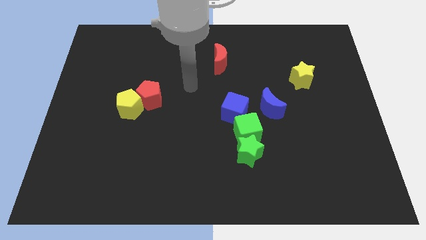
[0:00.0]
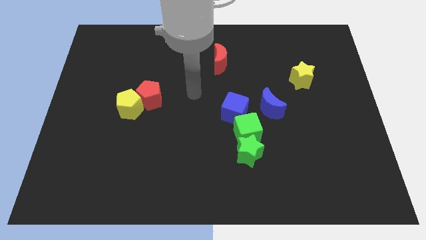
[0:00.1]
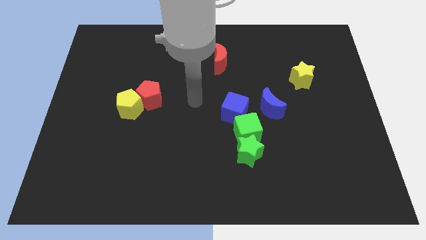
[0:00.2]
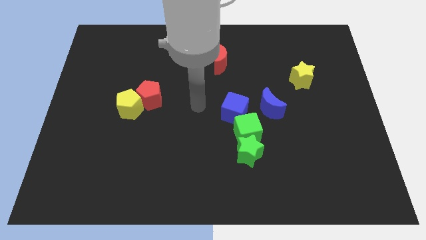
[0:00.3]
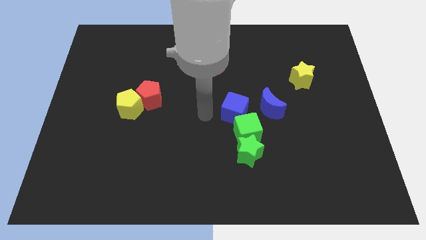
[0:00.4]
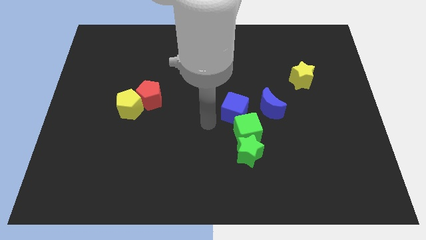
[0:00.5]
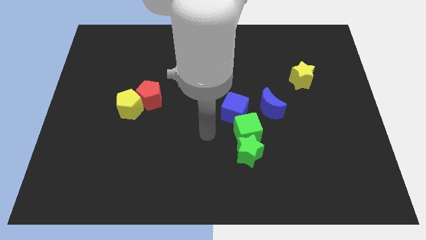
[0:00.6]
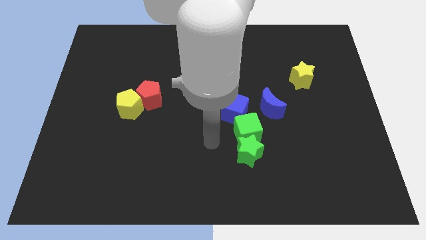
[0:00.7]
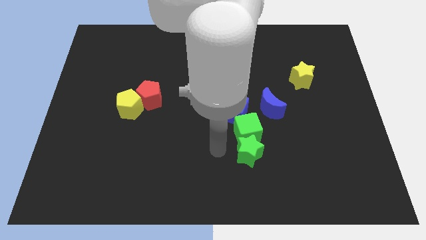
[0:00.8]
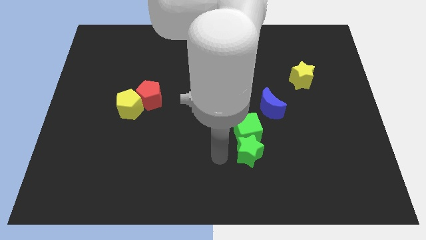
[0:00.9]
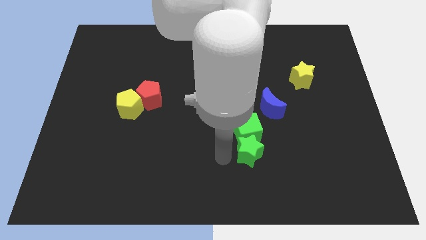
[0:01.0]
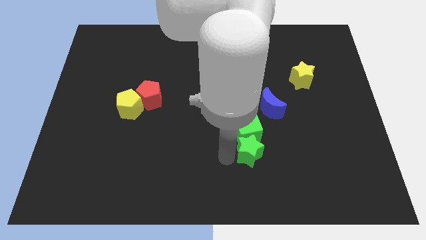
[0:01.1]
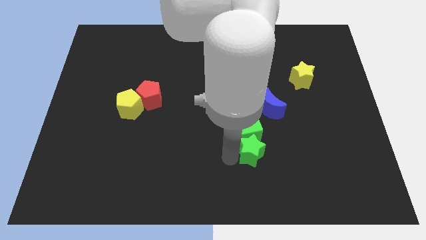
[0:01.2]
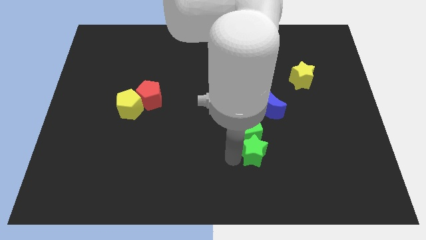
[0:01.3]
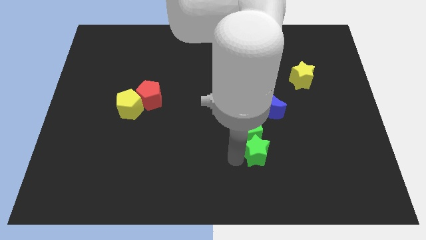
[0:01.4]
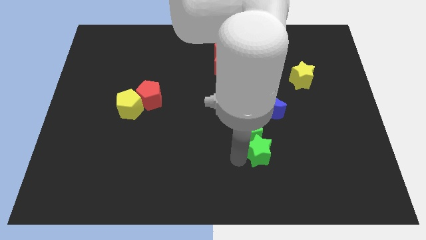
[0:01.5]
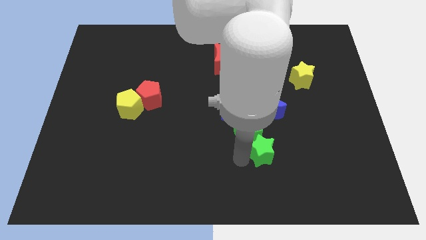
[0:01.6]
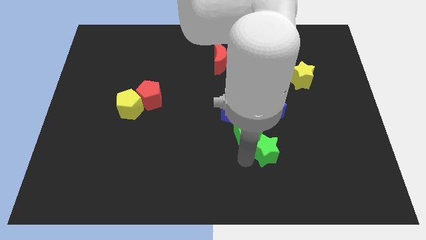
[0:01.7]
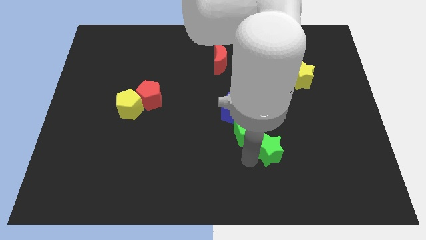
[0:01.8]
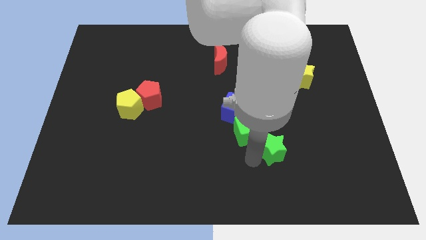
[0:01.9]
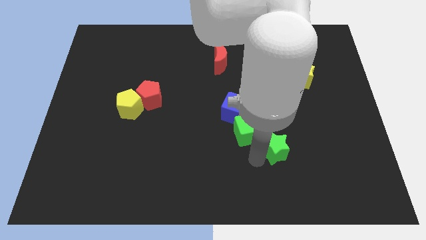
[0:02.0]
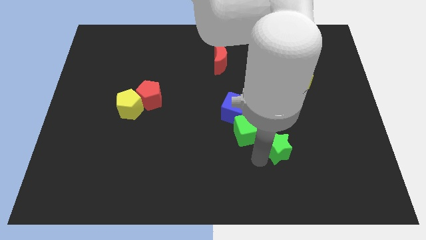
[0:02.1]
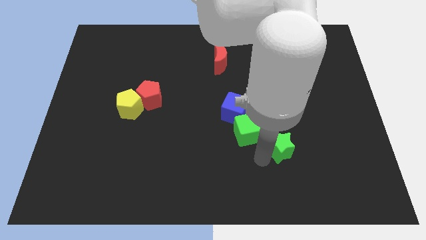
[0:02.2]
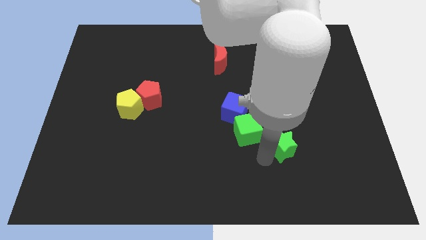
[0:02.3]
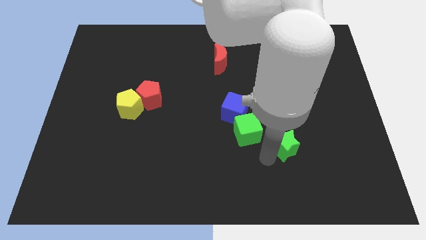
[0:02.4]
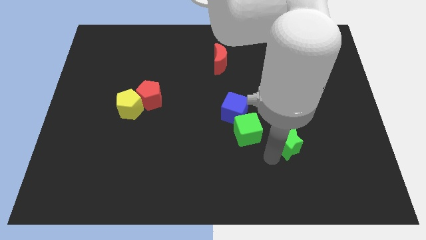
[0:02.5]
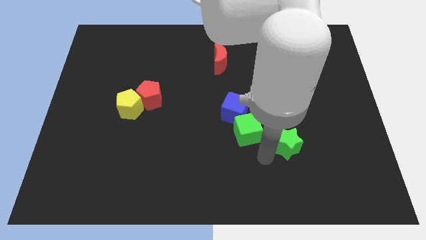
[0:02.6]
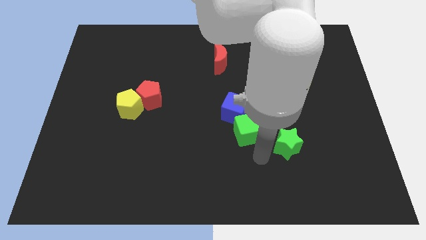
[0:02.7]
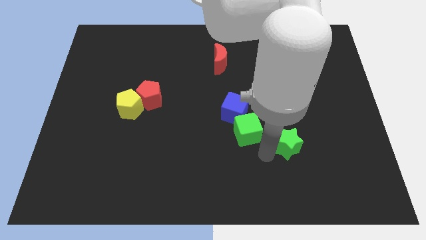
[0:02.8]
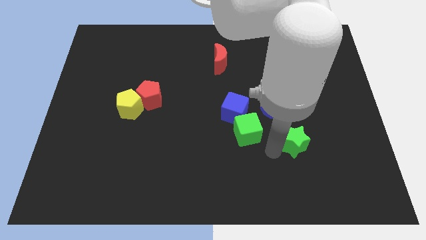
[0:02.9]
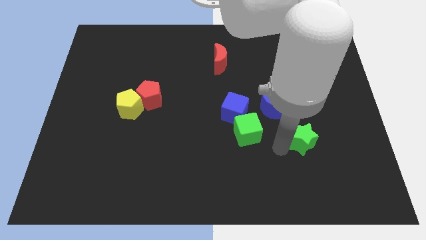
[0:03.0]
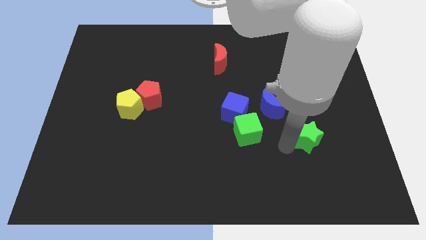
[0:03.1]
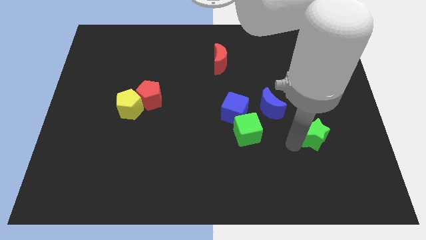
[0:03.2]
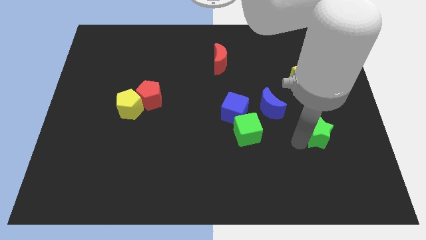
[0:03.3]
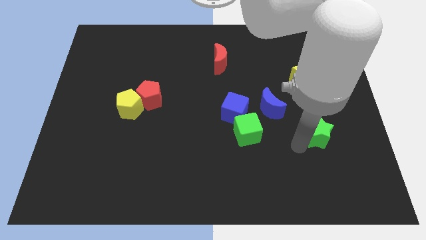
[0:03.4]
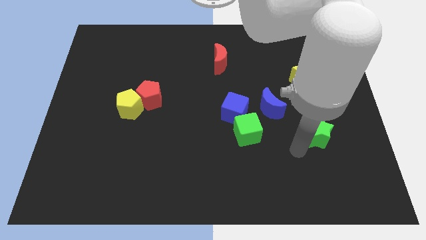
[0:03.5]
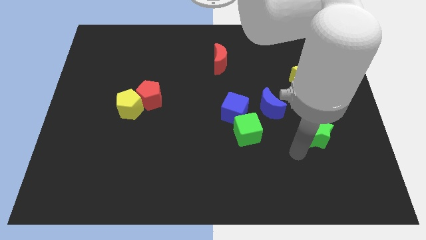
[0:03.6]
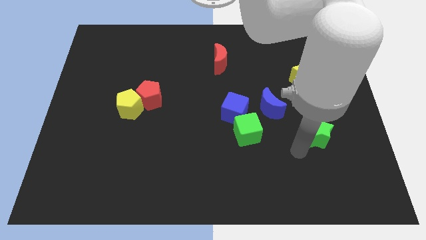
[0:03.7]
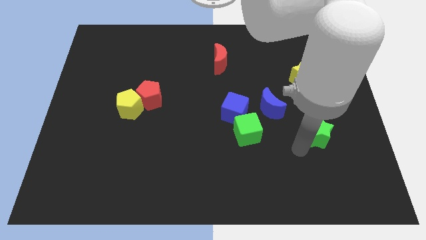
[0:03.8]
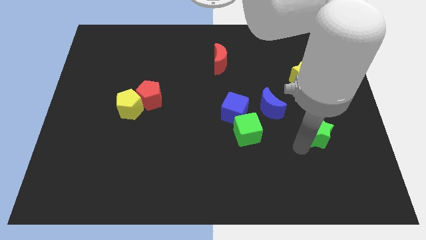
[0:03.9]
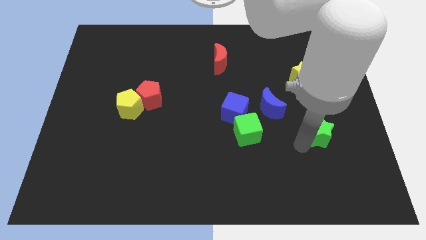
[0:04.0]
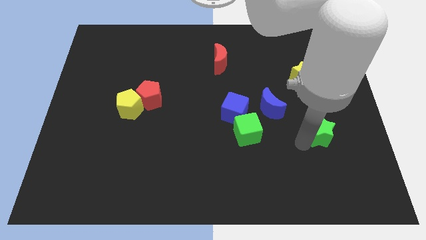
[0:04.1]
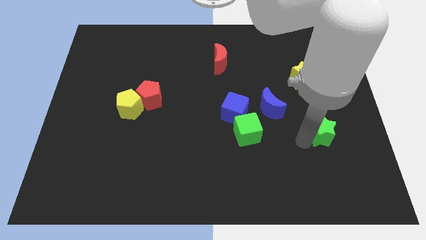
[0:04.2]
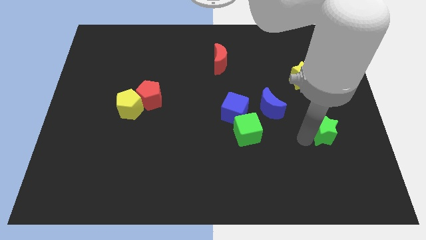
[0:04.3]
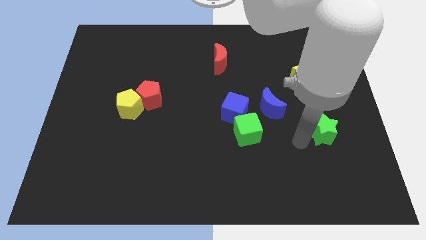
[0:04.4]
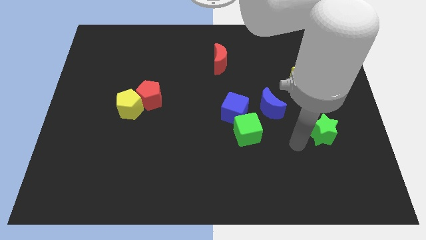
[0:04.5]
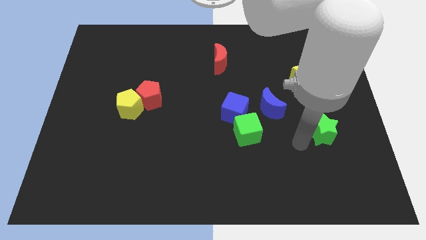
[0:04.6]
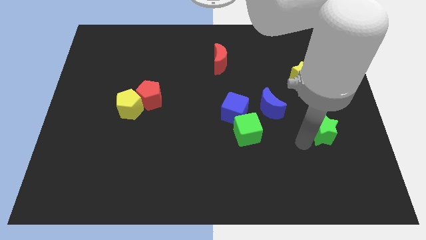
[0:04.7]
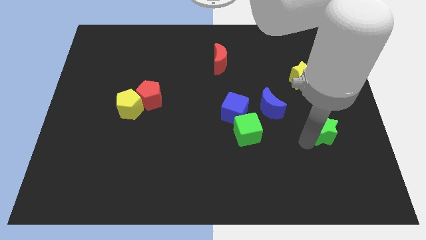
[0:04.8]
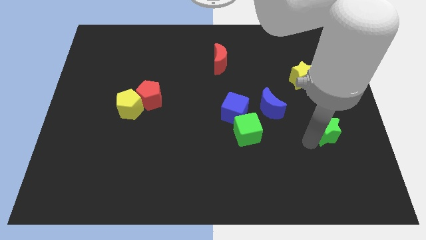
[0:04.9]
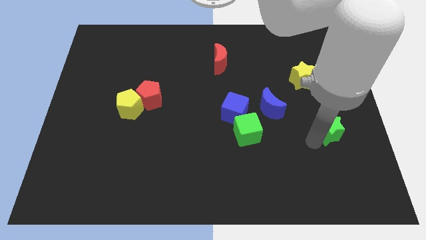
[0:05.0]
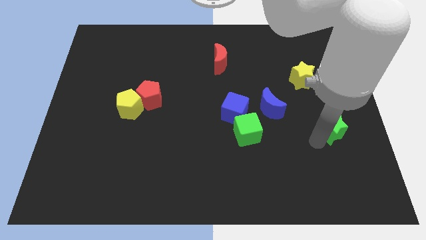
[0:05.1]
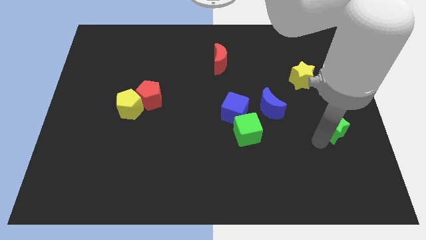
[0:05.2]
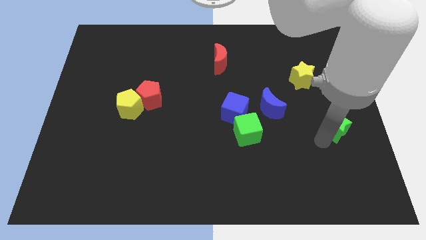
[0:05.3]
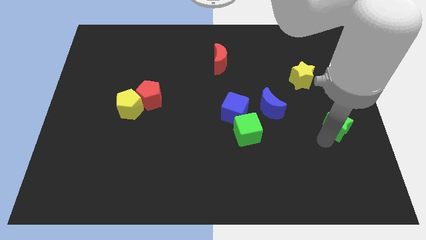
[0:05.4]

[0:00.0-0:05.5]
slide the green star to the right side

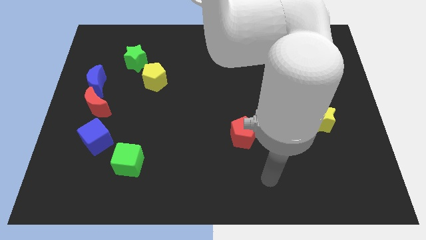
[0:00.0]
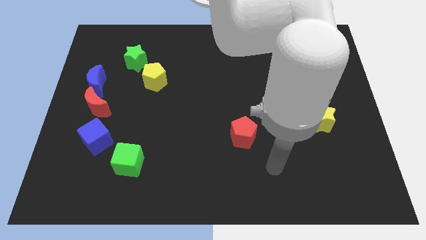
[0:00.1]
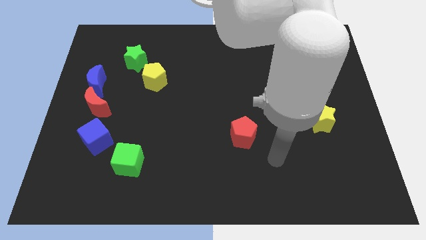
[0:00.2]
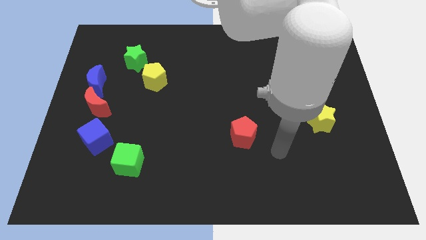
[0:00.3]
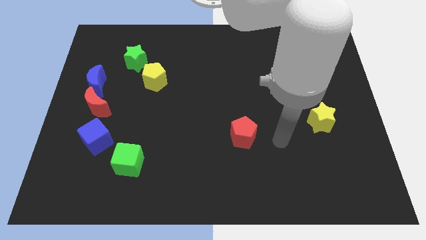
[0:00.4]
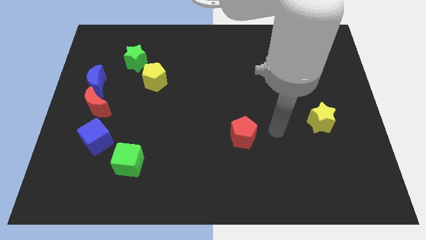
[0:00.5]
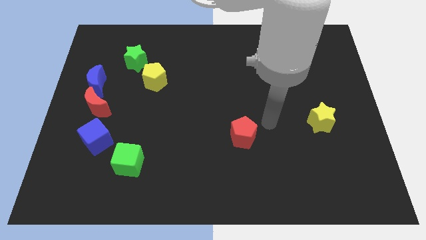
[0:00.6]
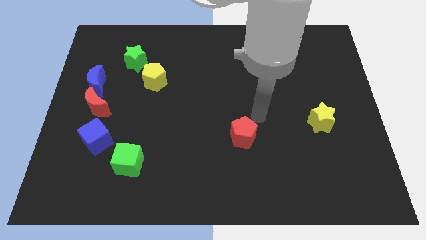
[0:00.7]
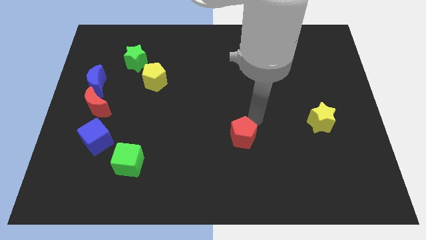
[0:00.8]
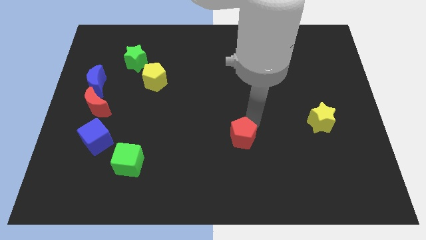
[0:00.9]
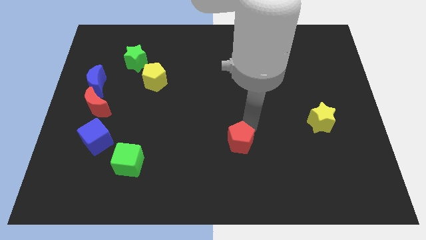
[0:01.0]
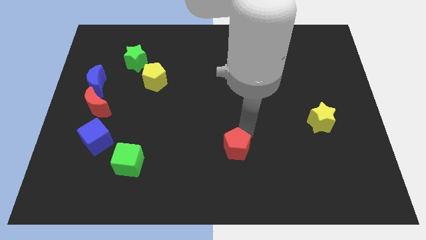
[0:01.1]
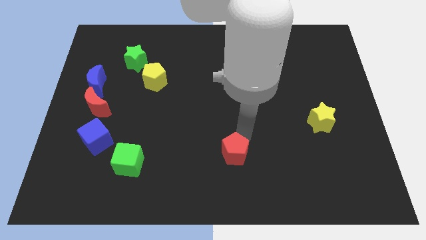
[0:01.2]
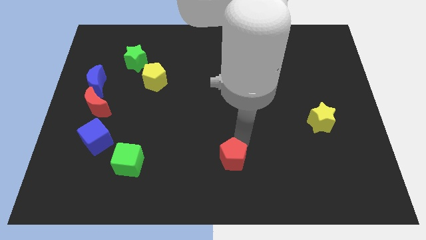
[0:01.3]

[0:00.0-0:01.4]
put the red pentagon to the bottom side
